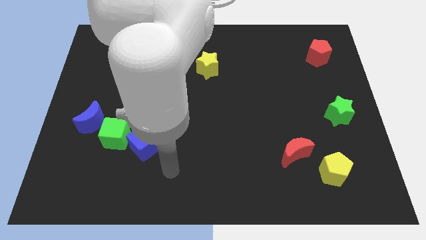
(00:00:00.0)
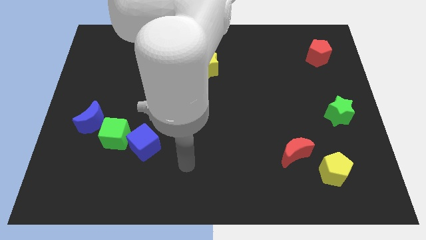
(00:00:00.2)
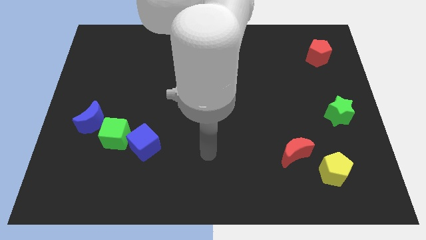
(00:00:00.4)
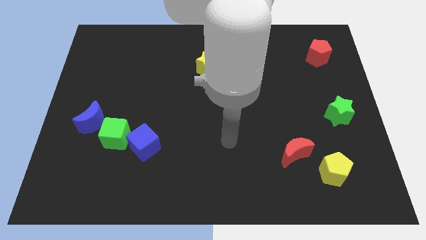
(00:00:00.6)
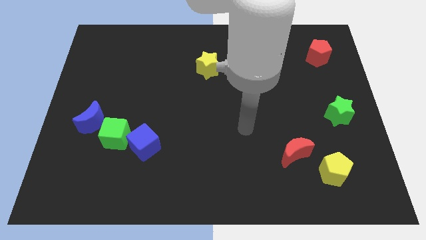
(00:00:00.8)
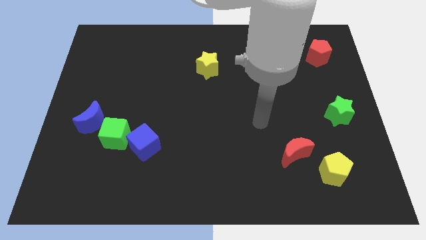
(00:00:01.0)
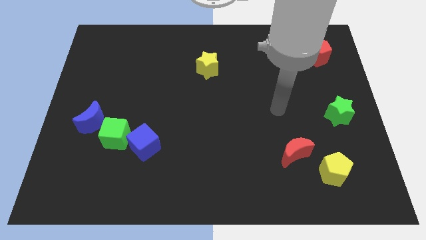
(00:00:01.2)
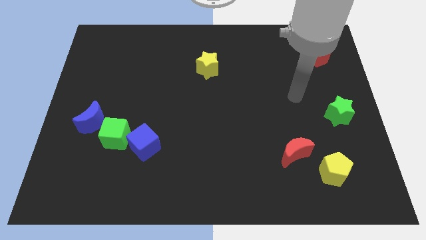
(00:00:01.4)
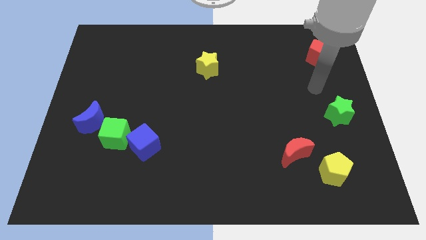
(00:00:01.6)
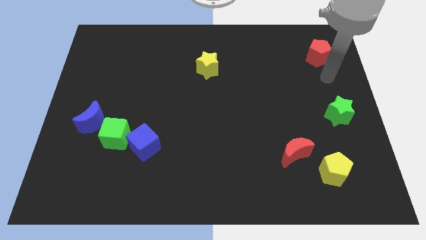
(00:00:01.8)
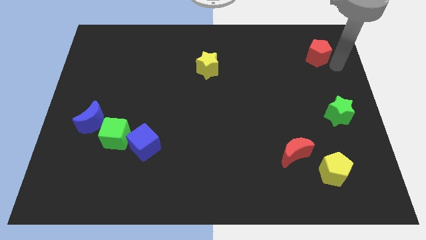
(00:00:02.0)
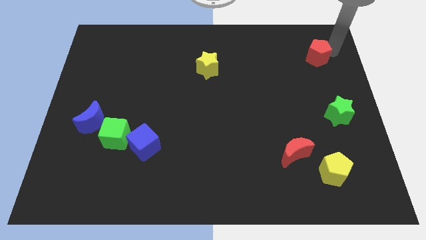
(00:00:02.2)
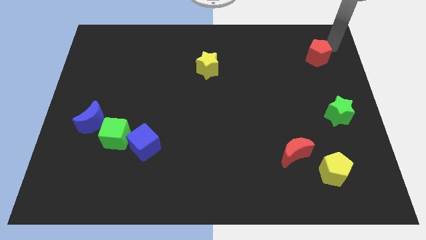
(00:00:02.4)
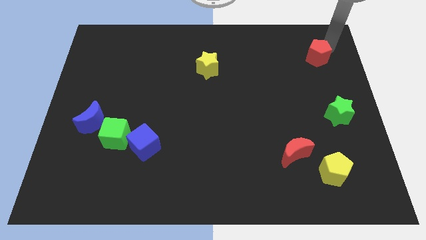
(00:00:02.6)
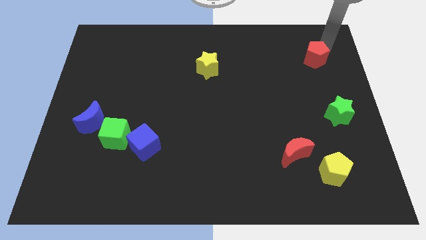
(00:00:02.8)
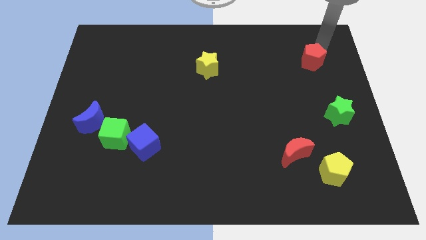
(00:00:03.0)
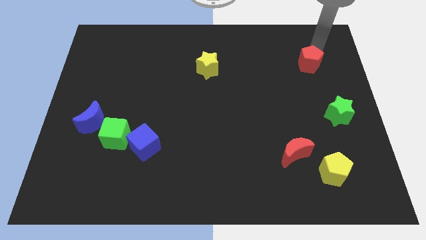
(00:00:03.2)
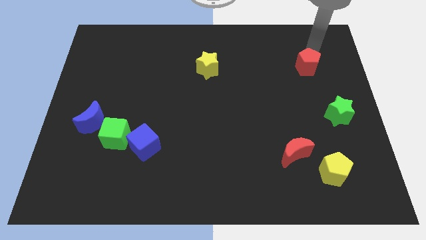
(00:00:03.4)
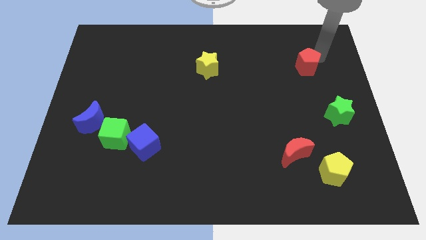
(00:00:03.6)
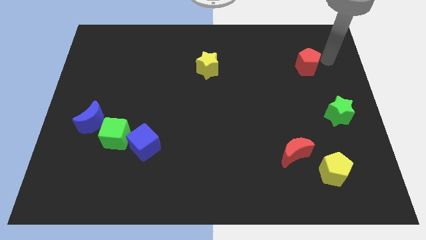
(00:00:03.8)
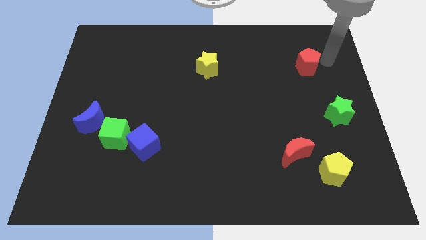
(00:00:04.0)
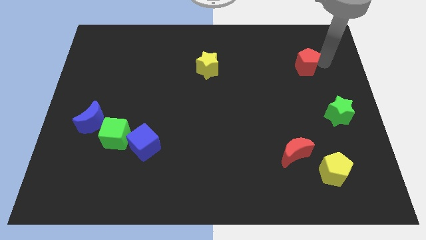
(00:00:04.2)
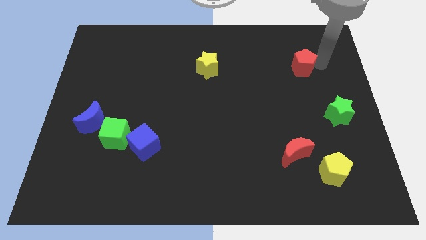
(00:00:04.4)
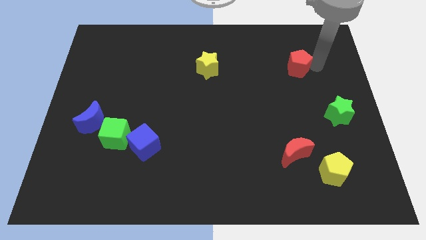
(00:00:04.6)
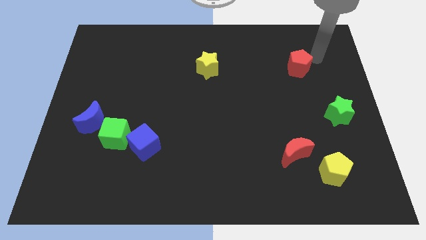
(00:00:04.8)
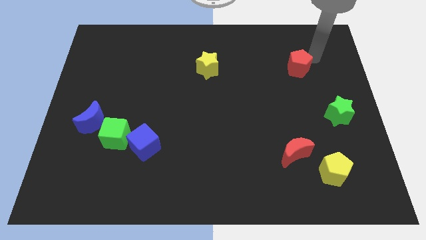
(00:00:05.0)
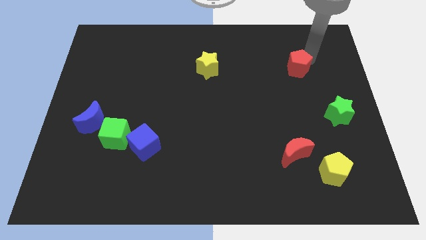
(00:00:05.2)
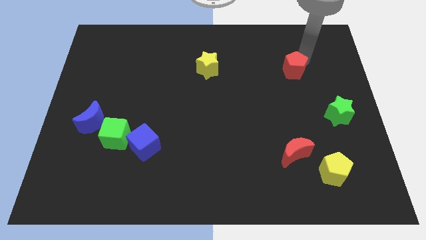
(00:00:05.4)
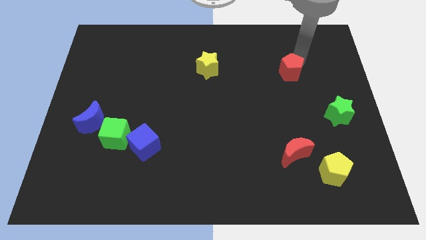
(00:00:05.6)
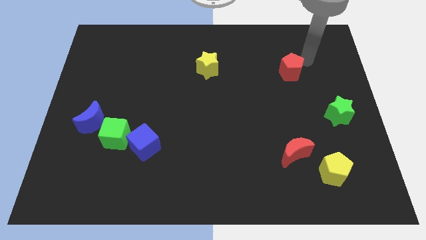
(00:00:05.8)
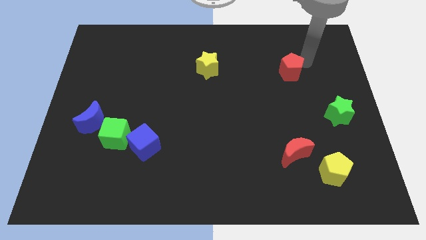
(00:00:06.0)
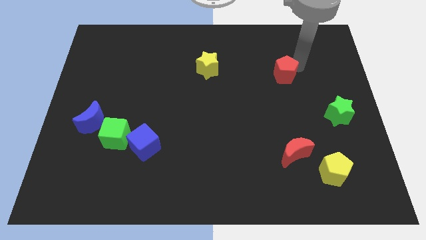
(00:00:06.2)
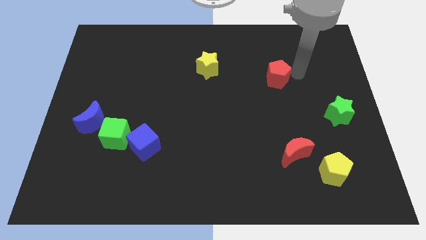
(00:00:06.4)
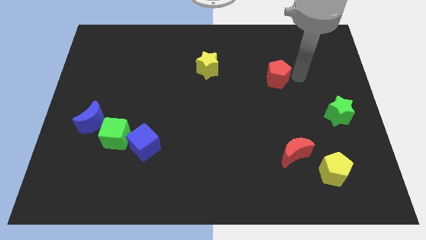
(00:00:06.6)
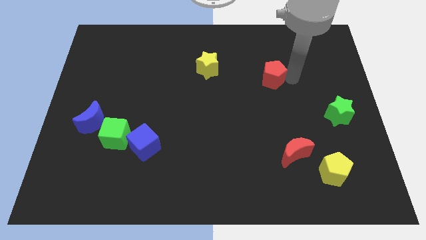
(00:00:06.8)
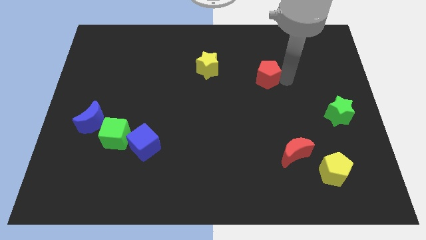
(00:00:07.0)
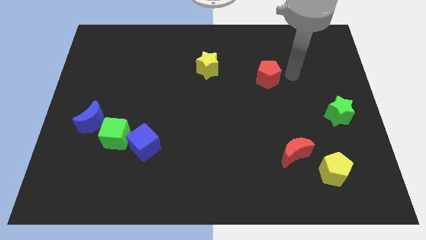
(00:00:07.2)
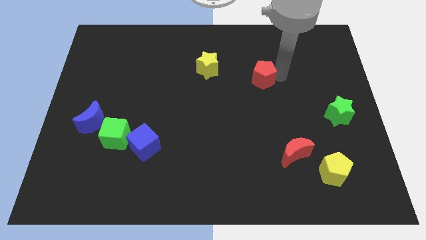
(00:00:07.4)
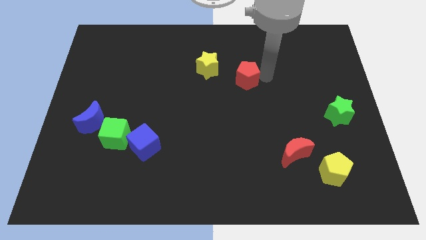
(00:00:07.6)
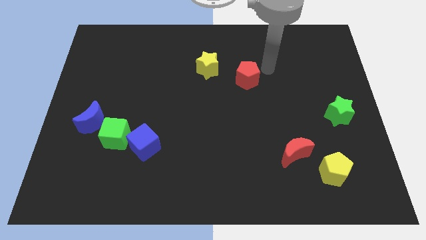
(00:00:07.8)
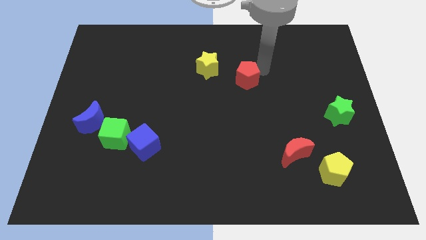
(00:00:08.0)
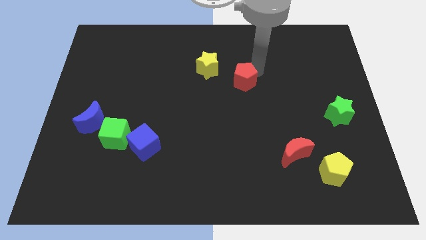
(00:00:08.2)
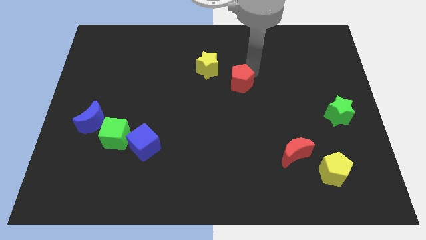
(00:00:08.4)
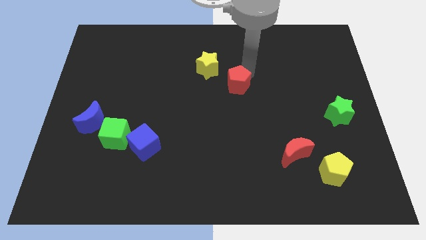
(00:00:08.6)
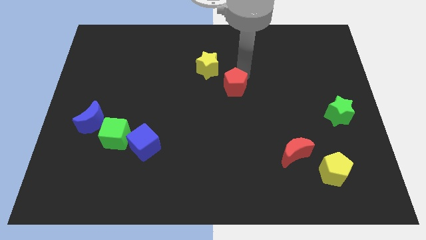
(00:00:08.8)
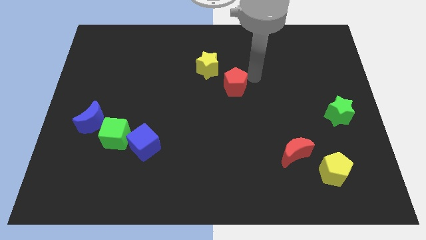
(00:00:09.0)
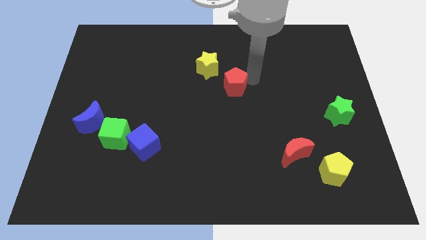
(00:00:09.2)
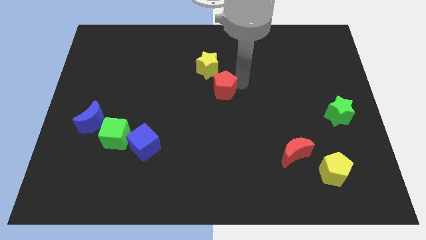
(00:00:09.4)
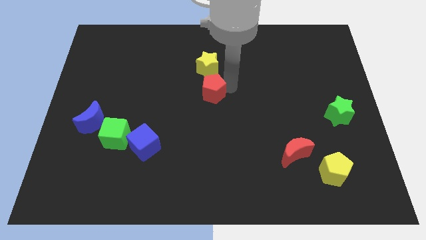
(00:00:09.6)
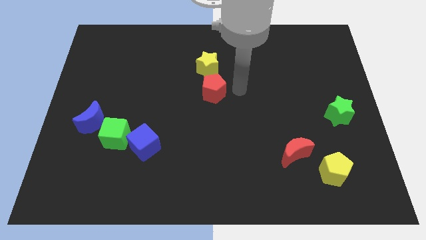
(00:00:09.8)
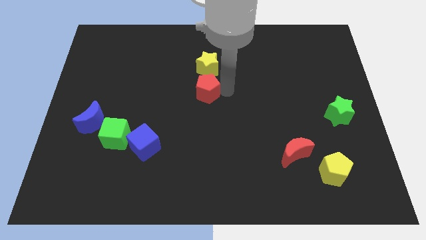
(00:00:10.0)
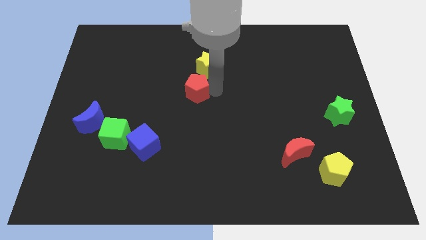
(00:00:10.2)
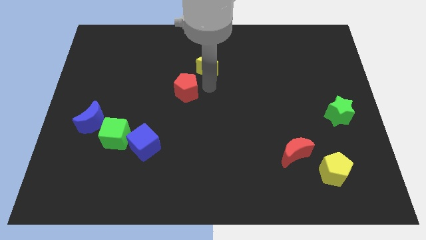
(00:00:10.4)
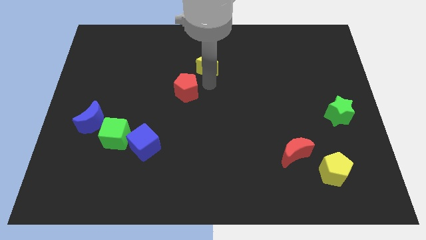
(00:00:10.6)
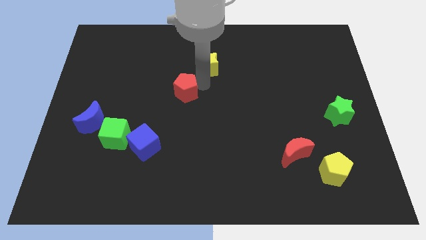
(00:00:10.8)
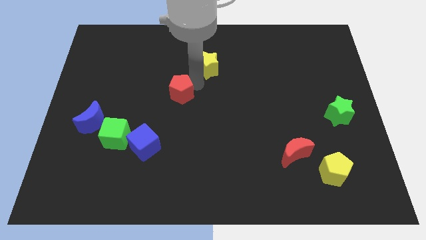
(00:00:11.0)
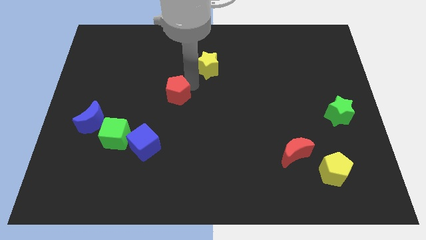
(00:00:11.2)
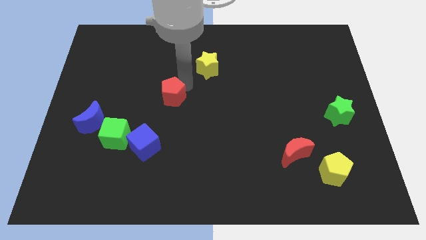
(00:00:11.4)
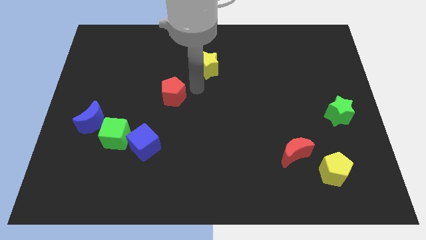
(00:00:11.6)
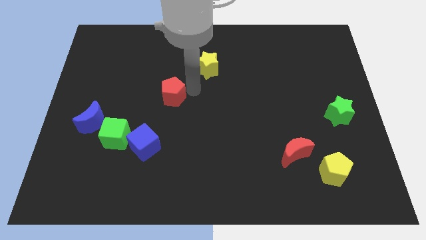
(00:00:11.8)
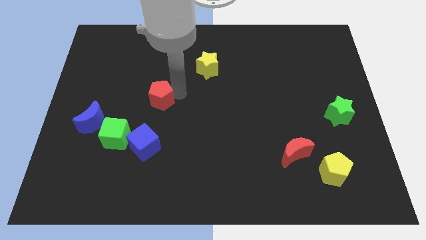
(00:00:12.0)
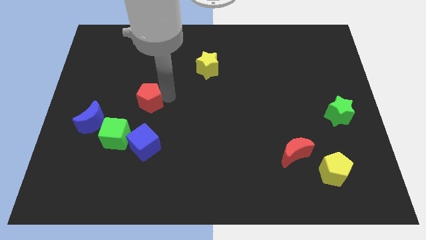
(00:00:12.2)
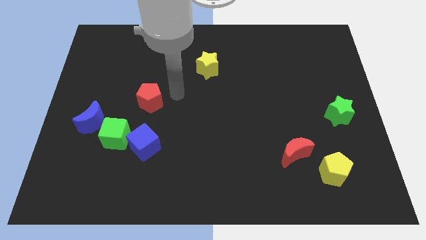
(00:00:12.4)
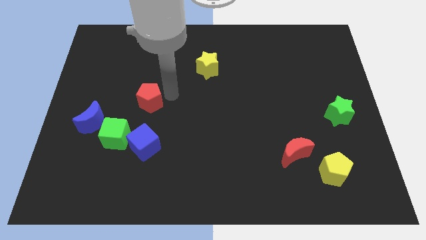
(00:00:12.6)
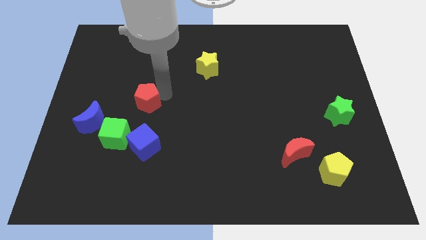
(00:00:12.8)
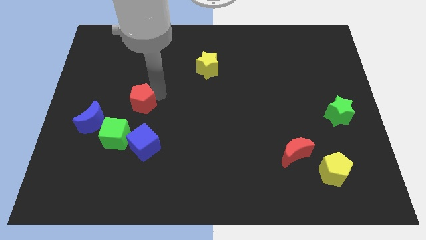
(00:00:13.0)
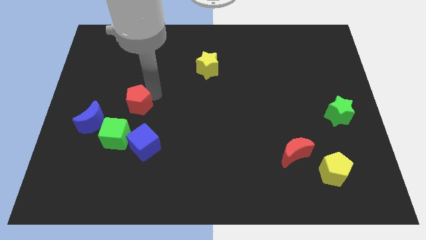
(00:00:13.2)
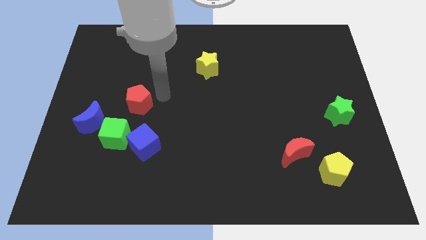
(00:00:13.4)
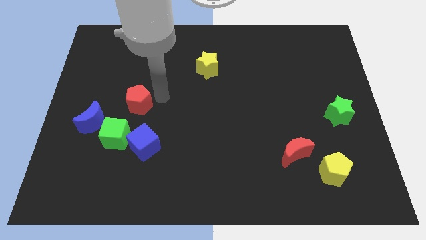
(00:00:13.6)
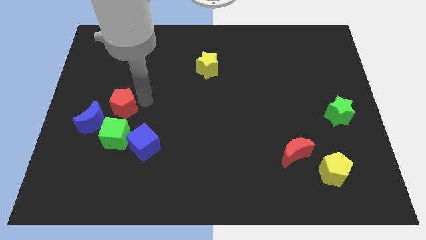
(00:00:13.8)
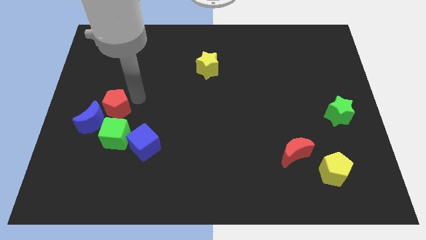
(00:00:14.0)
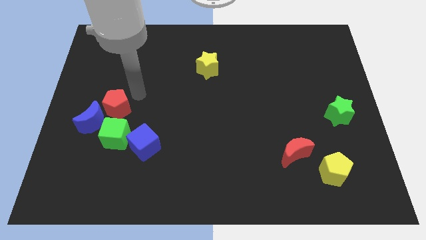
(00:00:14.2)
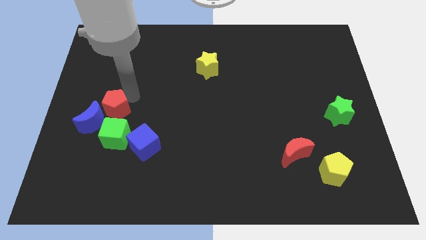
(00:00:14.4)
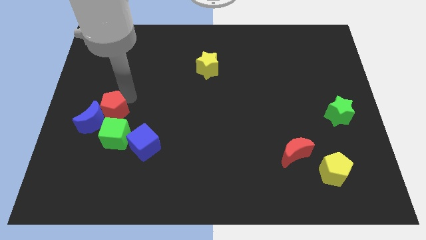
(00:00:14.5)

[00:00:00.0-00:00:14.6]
push the red pentagon next to the blue moon

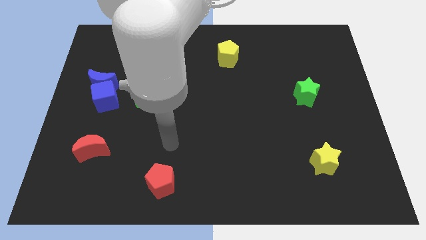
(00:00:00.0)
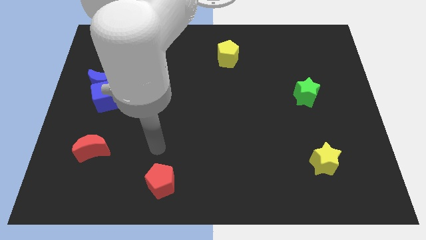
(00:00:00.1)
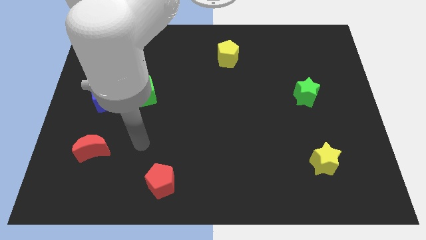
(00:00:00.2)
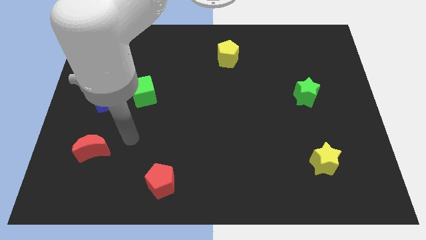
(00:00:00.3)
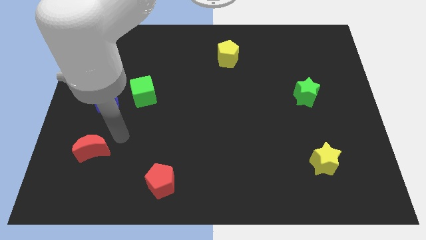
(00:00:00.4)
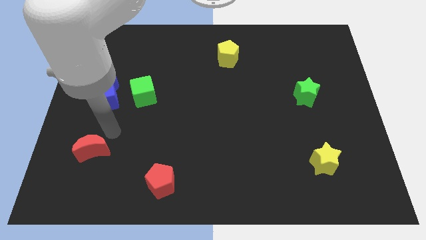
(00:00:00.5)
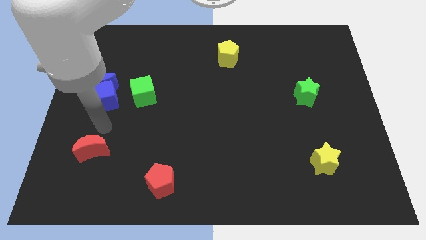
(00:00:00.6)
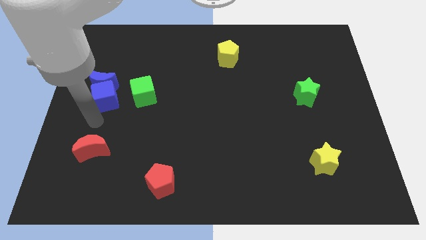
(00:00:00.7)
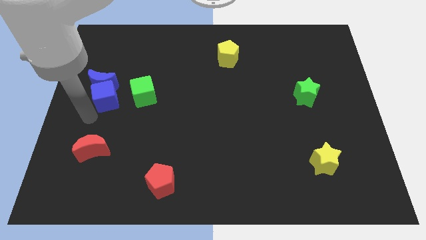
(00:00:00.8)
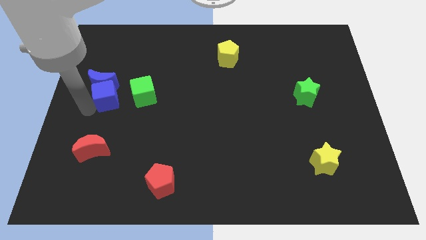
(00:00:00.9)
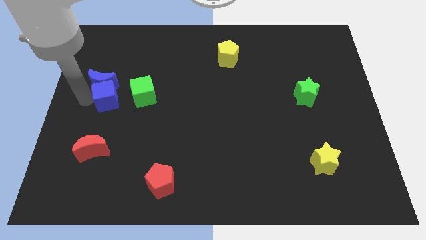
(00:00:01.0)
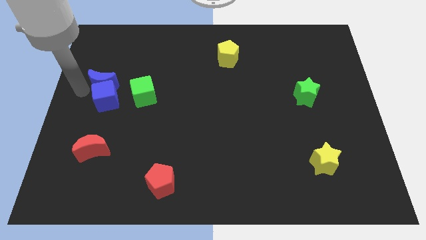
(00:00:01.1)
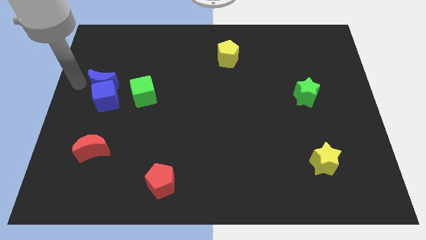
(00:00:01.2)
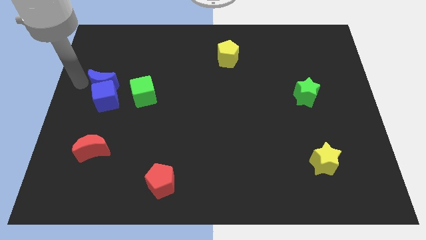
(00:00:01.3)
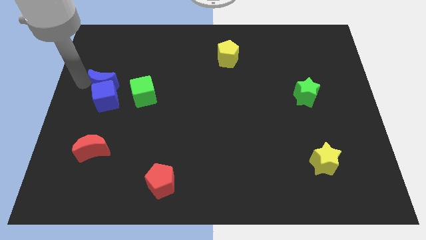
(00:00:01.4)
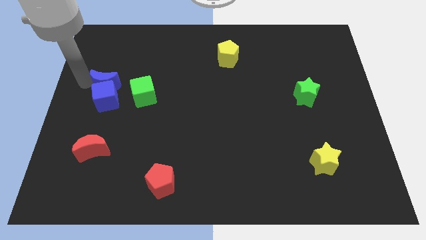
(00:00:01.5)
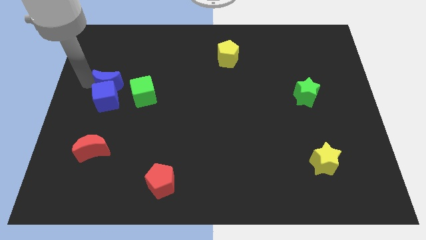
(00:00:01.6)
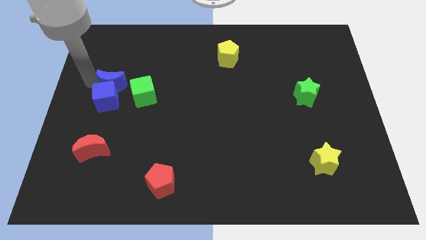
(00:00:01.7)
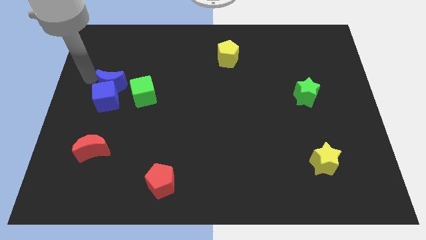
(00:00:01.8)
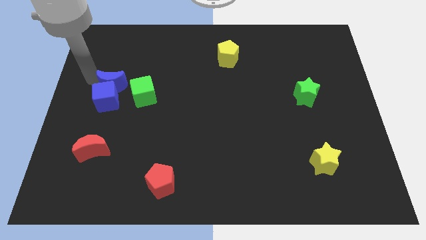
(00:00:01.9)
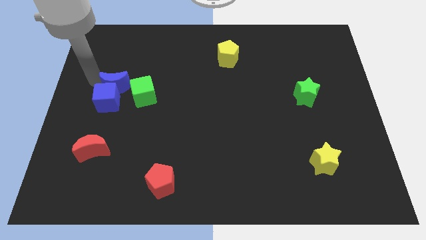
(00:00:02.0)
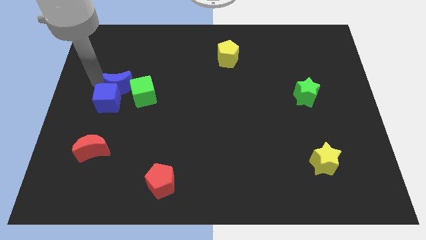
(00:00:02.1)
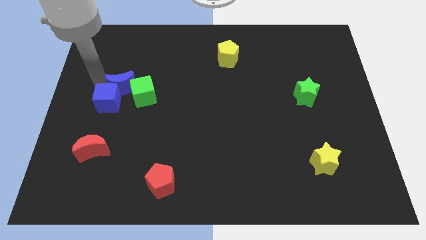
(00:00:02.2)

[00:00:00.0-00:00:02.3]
push the blue moon towards the green cube
